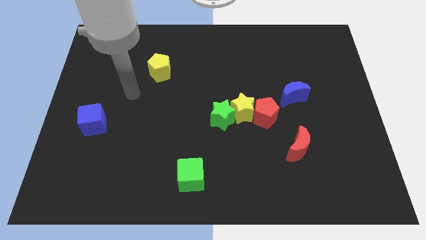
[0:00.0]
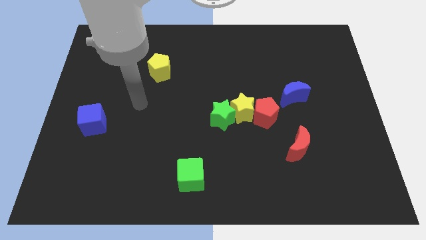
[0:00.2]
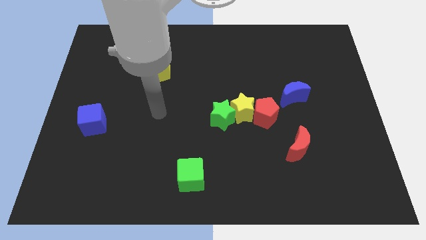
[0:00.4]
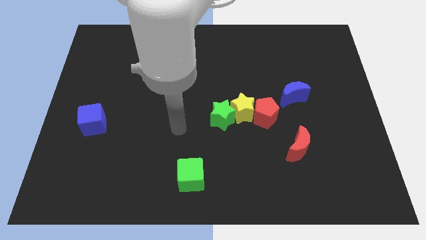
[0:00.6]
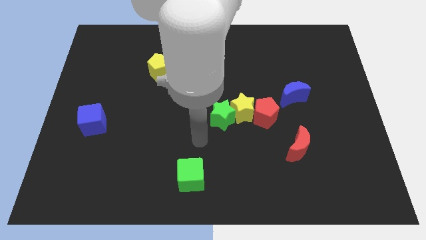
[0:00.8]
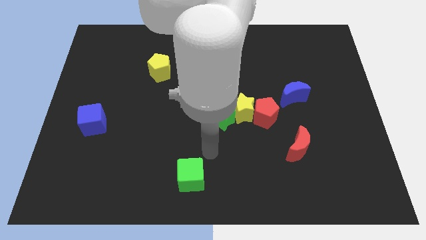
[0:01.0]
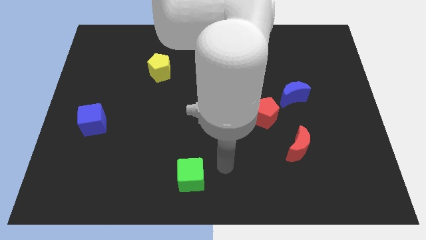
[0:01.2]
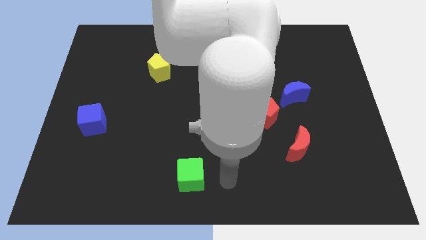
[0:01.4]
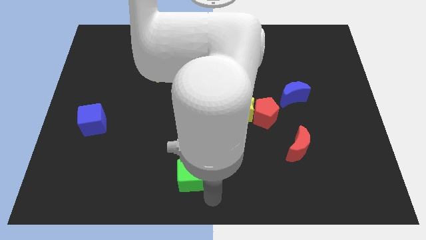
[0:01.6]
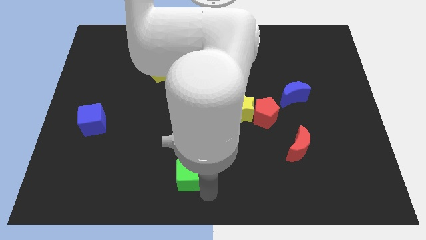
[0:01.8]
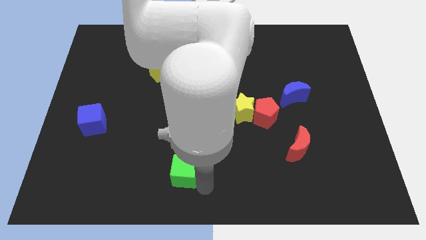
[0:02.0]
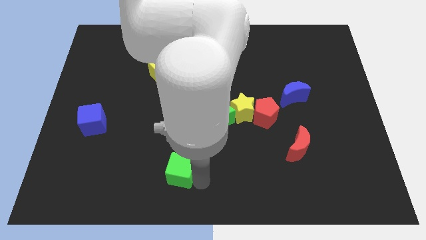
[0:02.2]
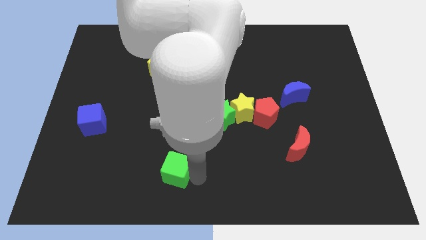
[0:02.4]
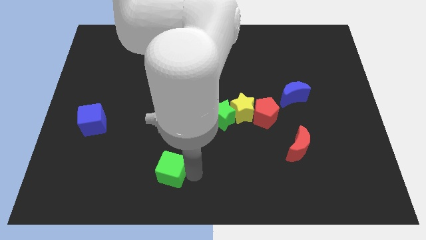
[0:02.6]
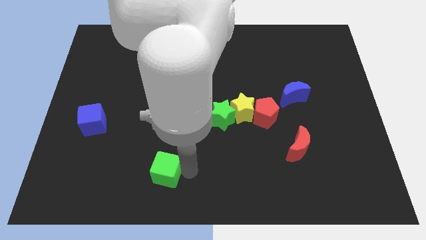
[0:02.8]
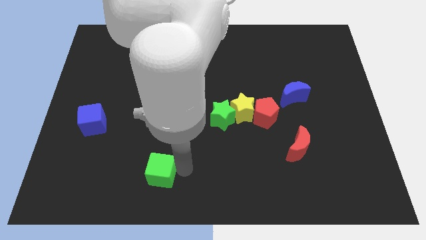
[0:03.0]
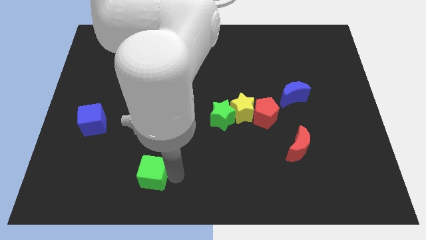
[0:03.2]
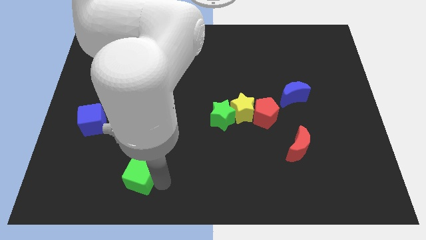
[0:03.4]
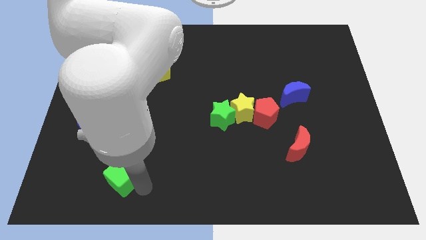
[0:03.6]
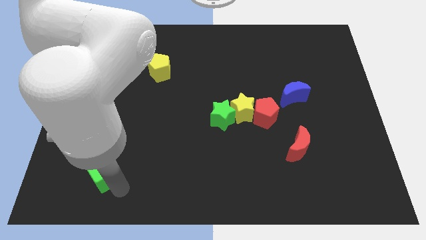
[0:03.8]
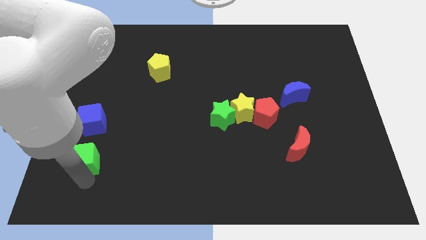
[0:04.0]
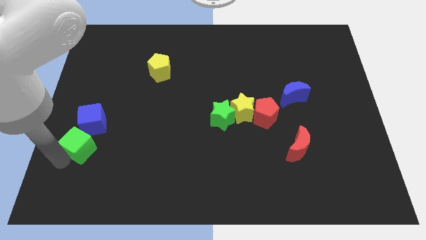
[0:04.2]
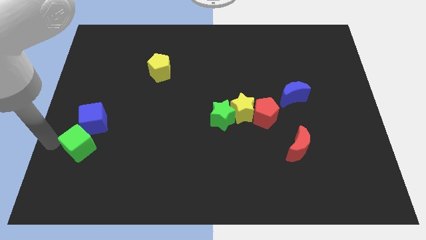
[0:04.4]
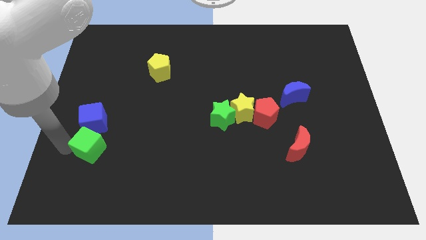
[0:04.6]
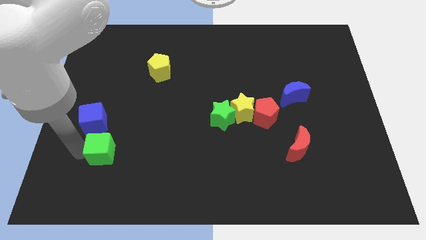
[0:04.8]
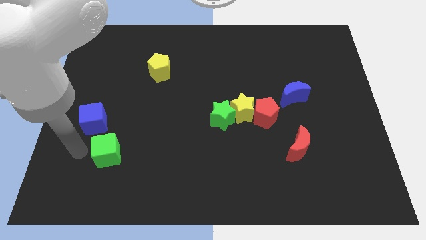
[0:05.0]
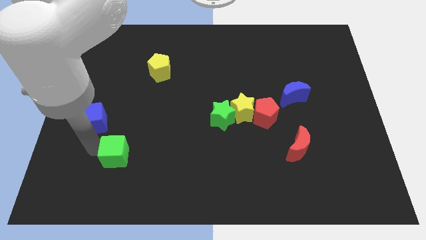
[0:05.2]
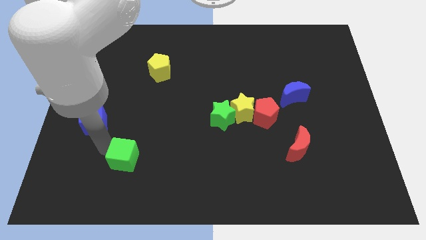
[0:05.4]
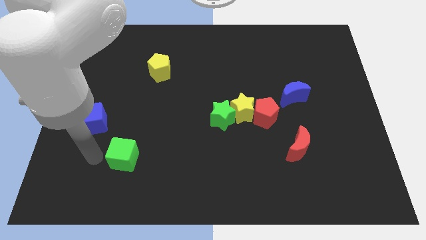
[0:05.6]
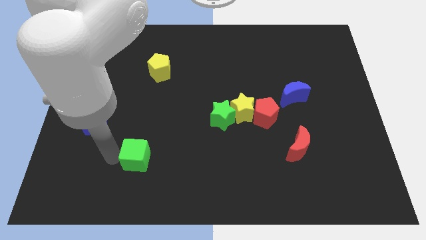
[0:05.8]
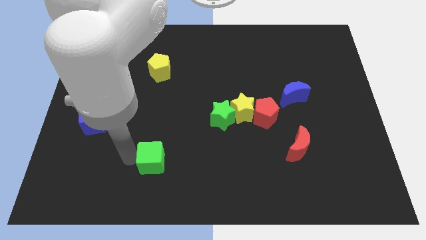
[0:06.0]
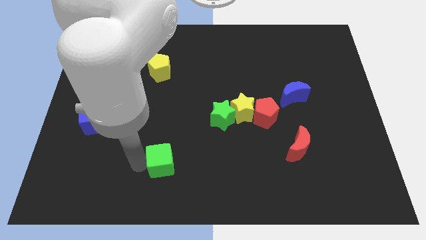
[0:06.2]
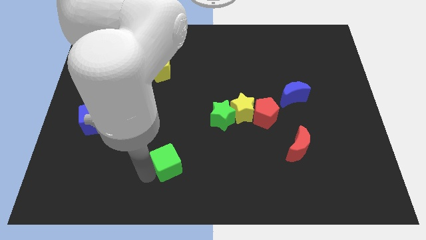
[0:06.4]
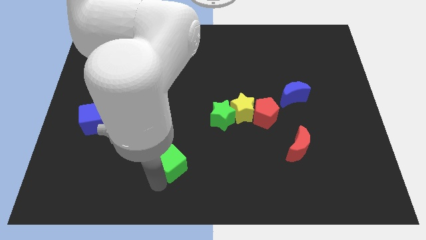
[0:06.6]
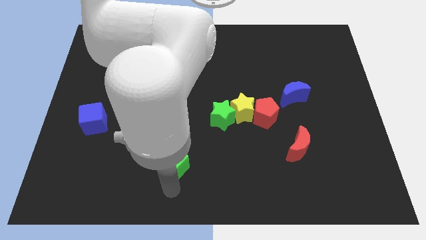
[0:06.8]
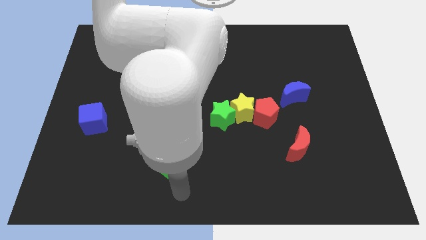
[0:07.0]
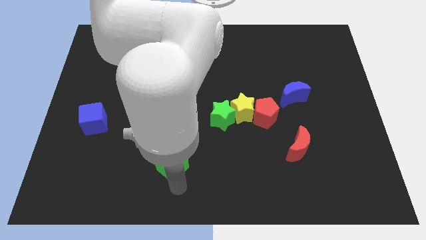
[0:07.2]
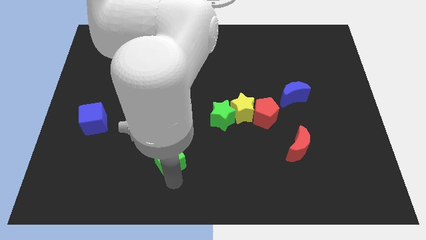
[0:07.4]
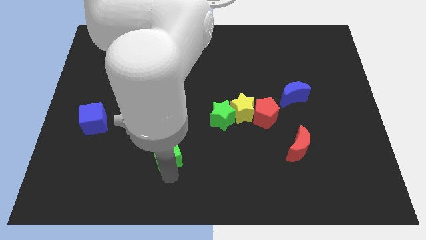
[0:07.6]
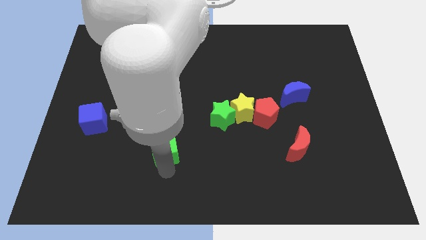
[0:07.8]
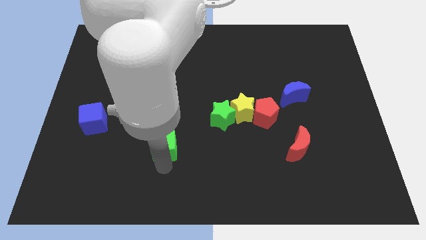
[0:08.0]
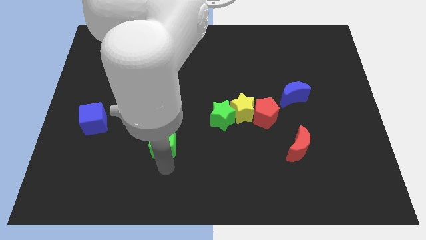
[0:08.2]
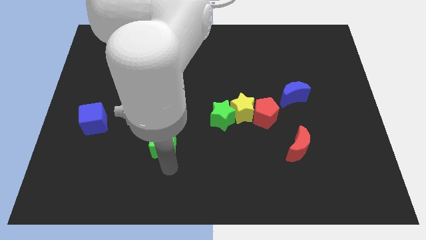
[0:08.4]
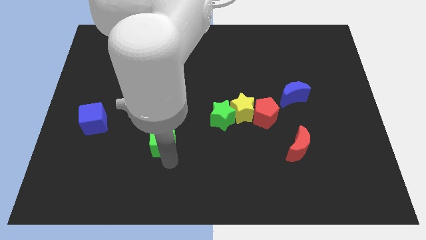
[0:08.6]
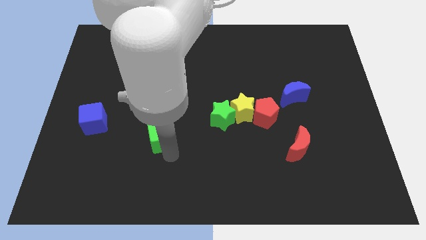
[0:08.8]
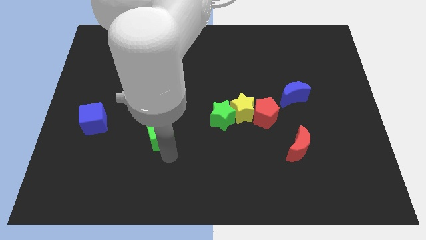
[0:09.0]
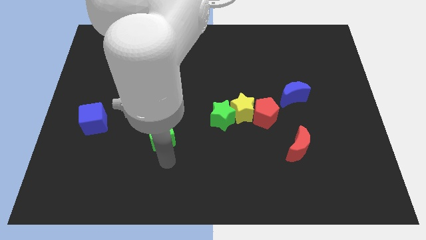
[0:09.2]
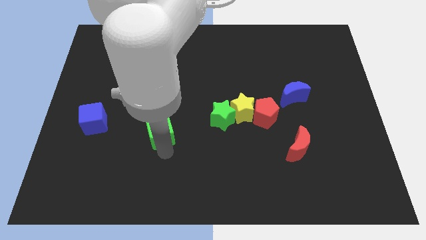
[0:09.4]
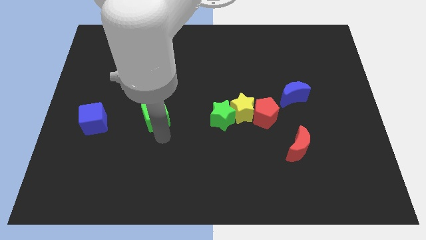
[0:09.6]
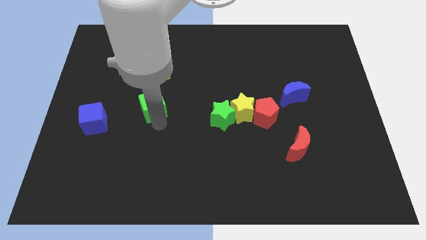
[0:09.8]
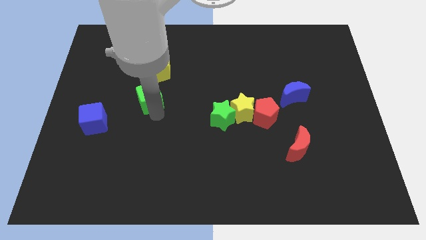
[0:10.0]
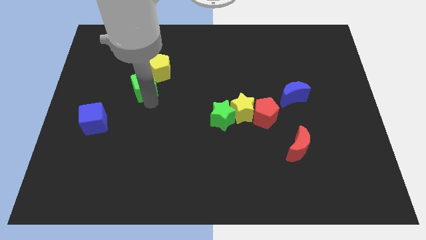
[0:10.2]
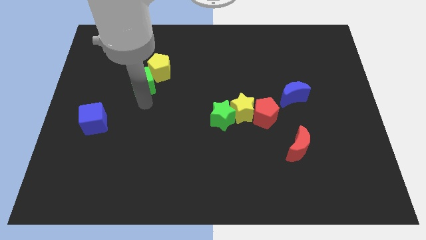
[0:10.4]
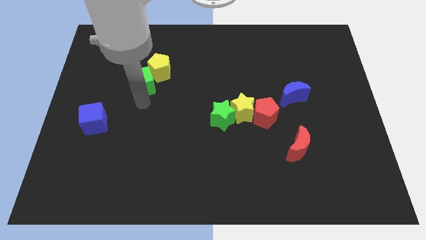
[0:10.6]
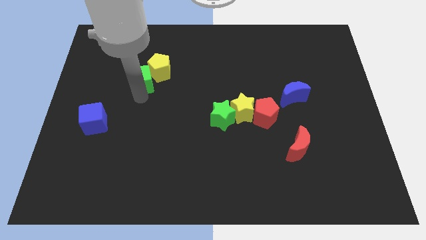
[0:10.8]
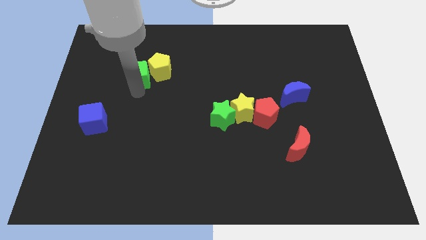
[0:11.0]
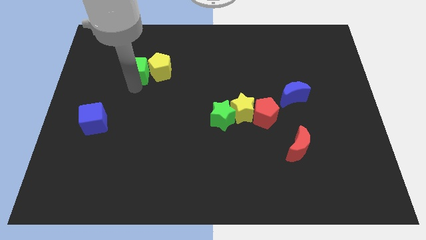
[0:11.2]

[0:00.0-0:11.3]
move the green cube diagonally up and to the left of the yellow pentagon

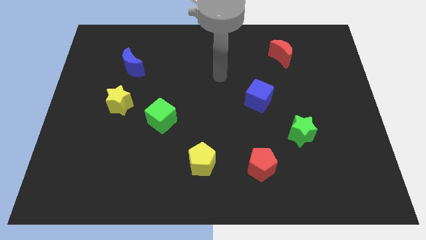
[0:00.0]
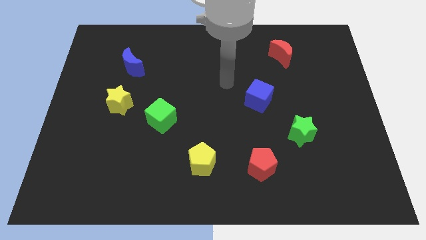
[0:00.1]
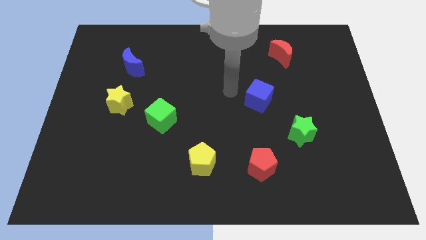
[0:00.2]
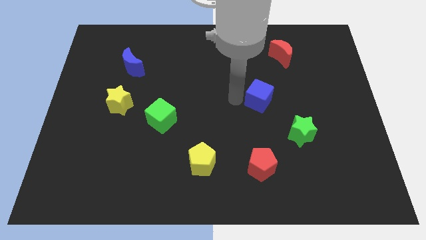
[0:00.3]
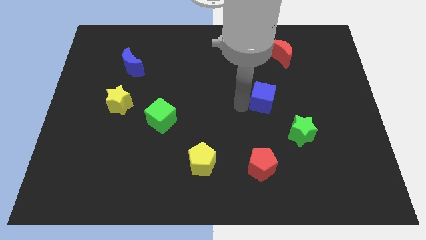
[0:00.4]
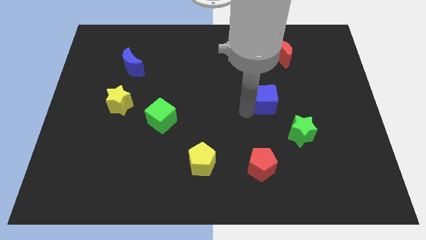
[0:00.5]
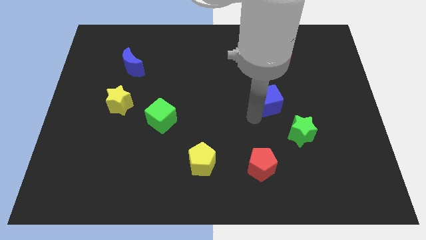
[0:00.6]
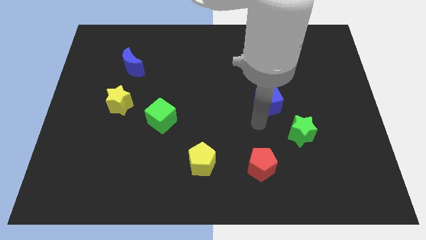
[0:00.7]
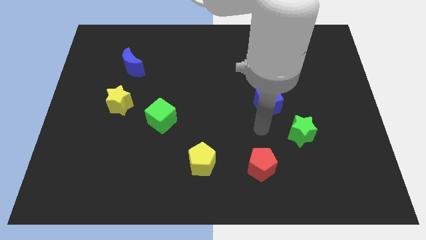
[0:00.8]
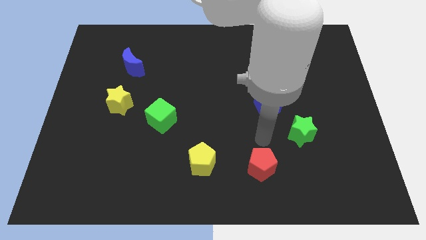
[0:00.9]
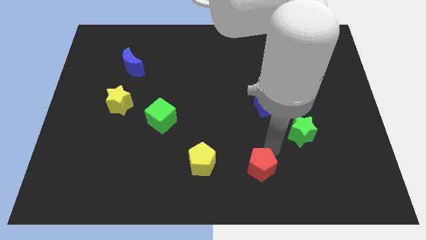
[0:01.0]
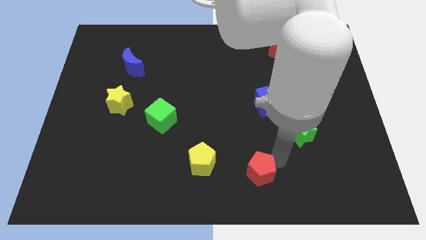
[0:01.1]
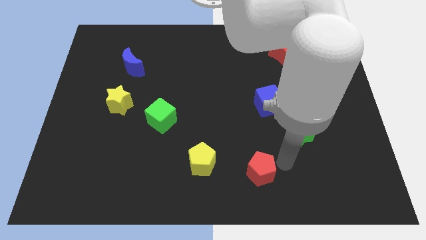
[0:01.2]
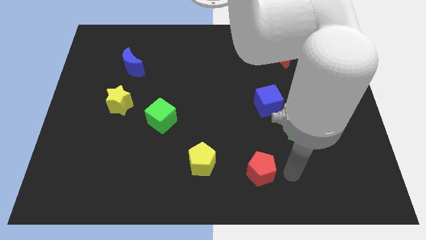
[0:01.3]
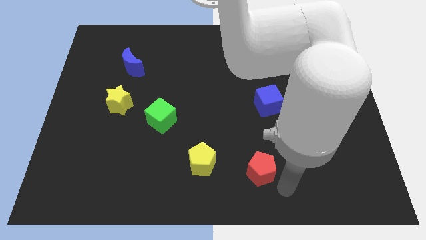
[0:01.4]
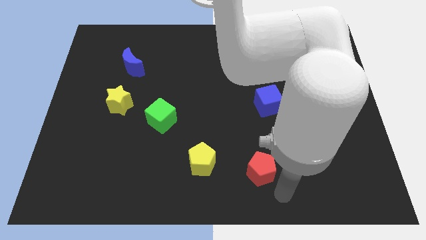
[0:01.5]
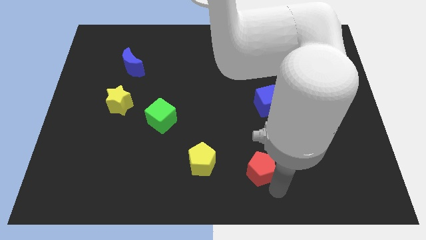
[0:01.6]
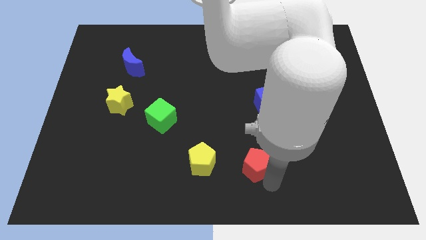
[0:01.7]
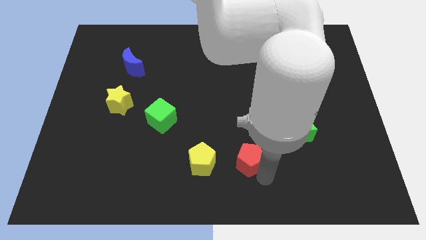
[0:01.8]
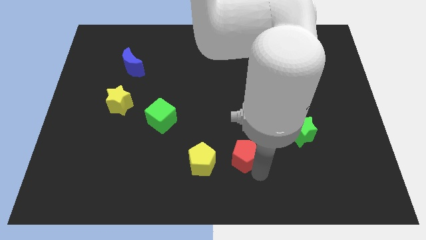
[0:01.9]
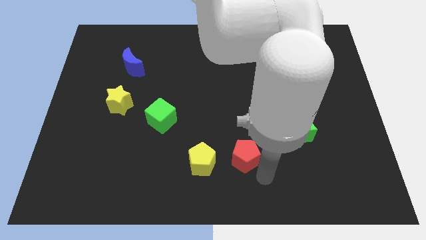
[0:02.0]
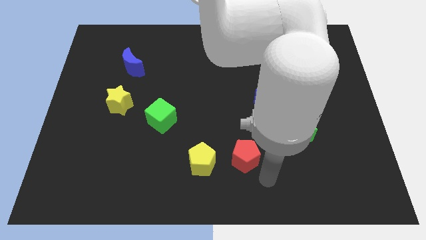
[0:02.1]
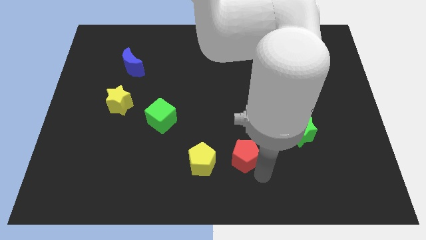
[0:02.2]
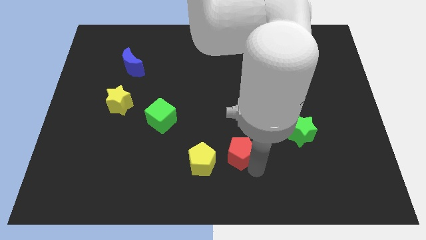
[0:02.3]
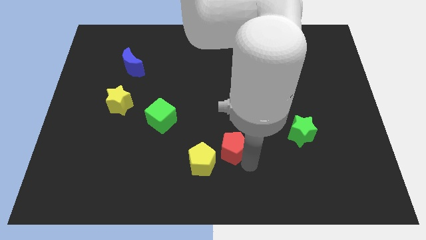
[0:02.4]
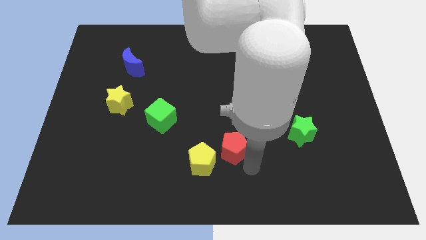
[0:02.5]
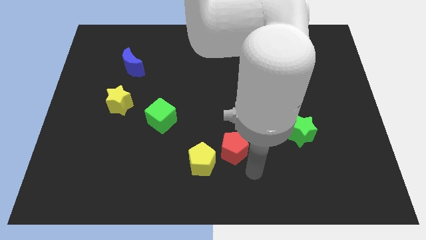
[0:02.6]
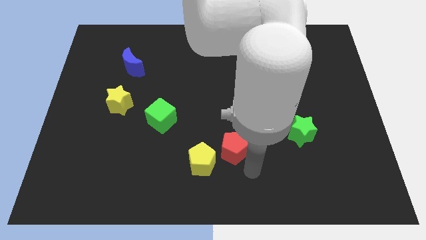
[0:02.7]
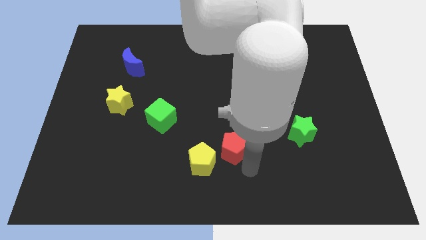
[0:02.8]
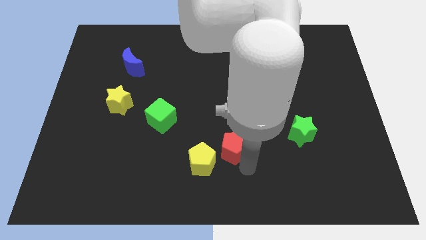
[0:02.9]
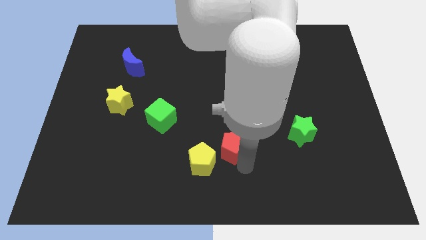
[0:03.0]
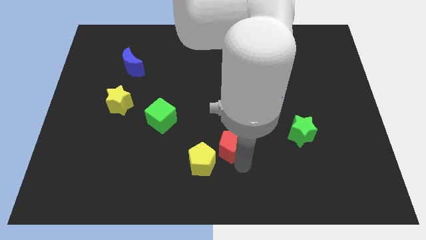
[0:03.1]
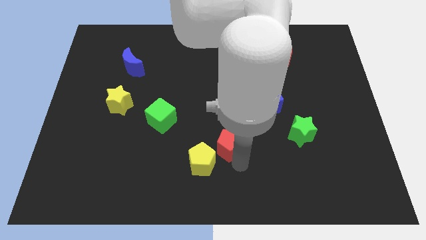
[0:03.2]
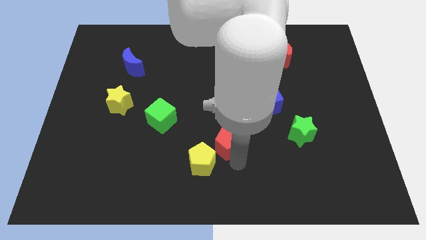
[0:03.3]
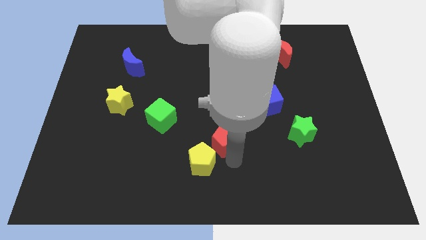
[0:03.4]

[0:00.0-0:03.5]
move the red pentagon above the yellow pentagon
